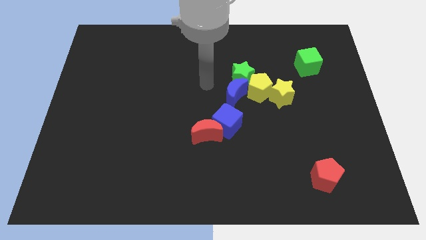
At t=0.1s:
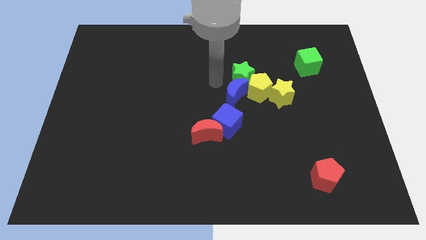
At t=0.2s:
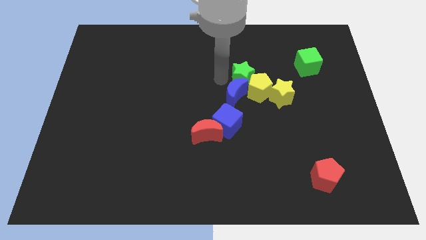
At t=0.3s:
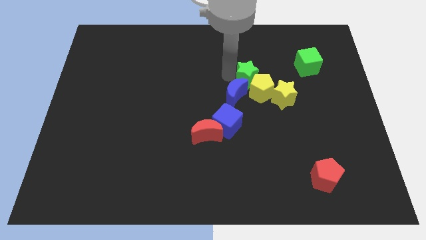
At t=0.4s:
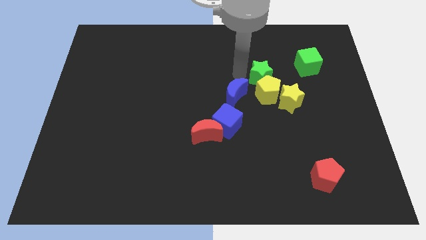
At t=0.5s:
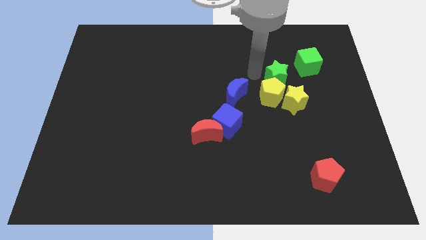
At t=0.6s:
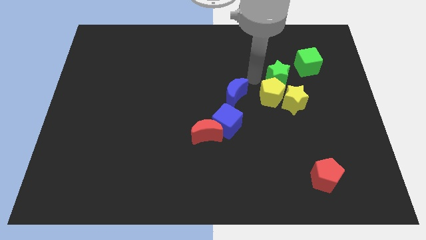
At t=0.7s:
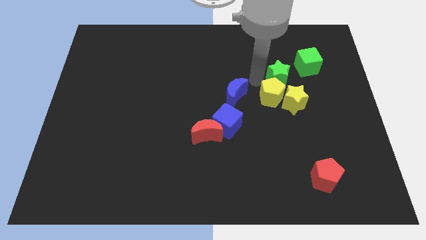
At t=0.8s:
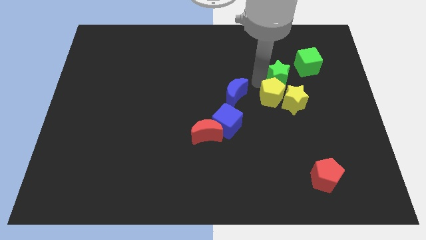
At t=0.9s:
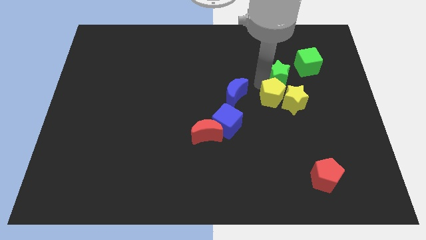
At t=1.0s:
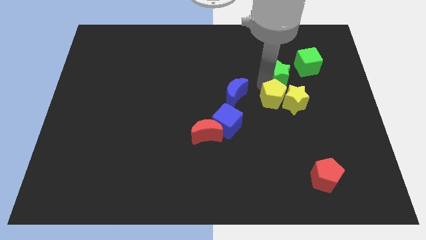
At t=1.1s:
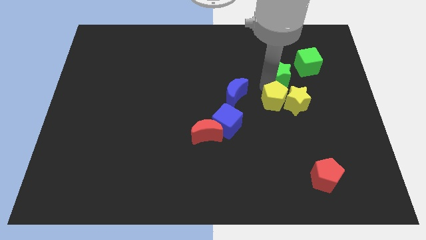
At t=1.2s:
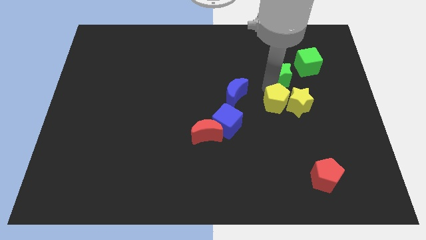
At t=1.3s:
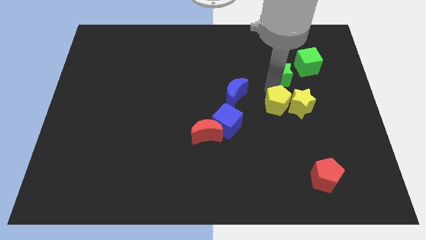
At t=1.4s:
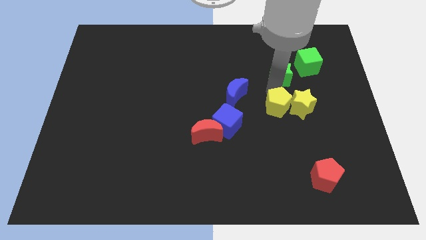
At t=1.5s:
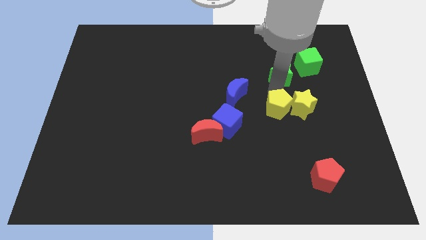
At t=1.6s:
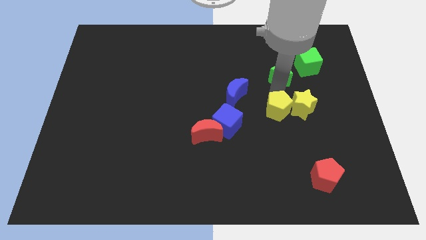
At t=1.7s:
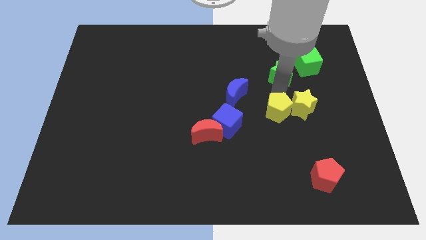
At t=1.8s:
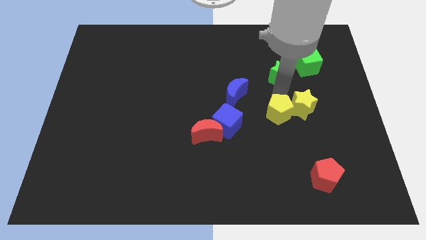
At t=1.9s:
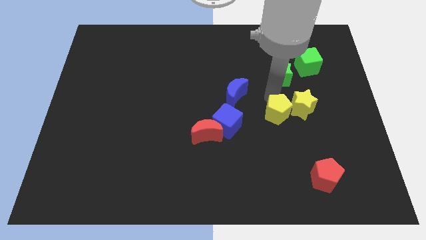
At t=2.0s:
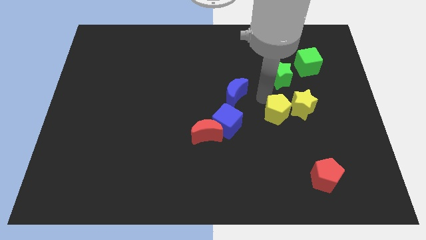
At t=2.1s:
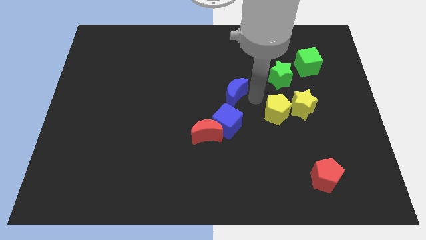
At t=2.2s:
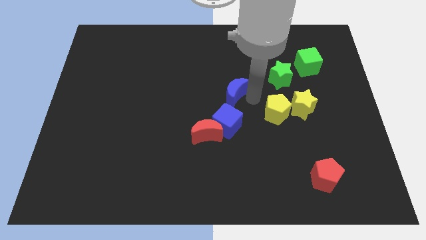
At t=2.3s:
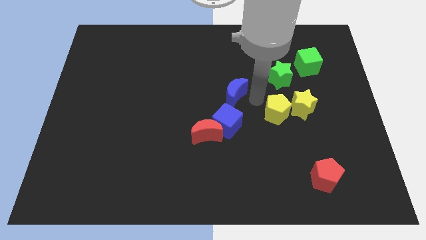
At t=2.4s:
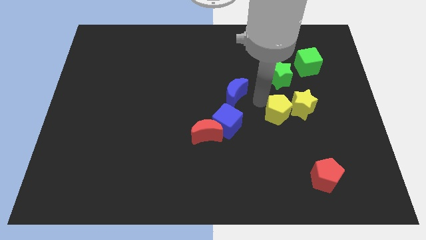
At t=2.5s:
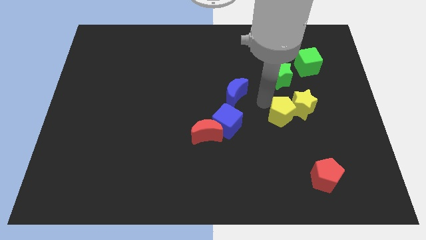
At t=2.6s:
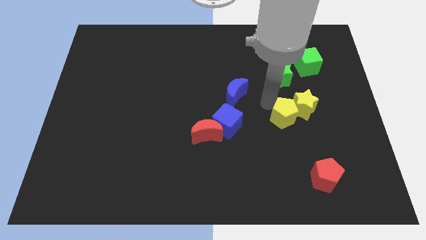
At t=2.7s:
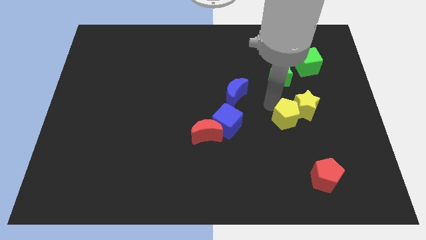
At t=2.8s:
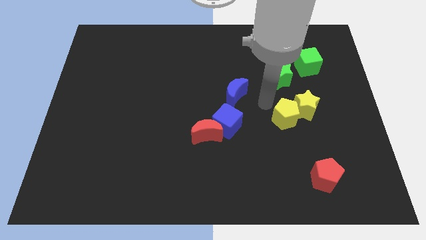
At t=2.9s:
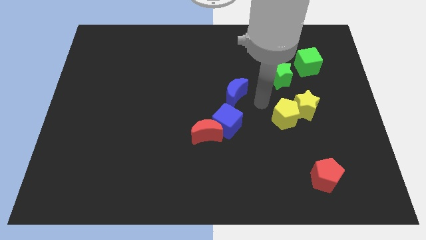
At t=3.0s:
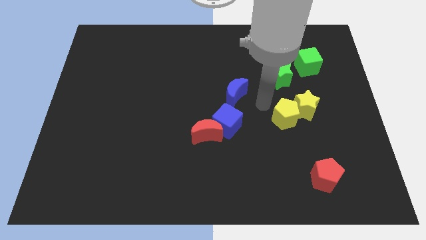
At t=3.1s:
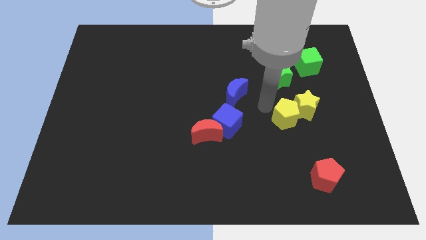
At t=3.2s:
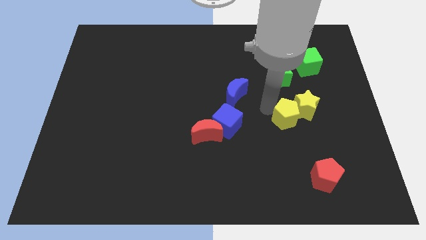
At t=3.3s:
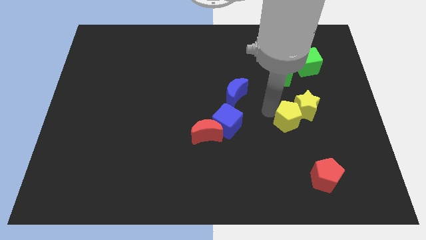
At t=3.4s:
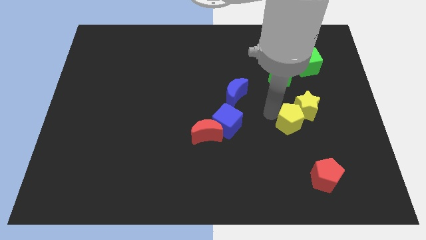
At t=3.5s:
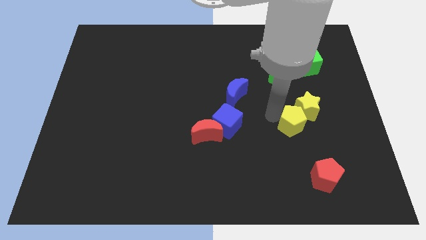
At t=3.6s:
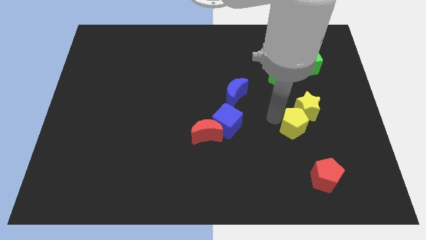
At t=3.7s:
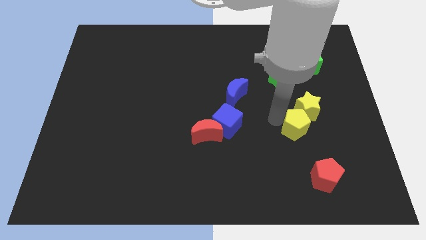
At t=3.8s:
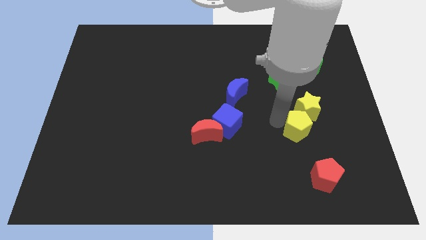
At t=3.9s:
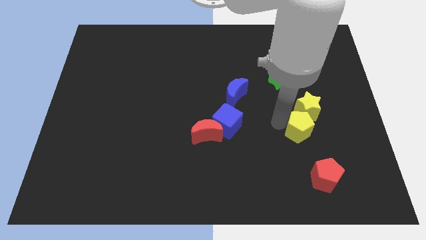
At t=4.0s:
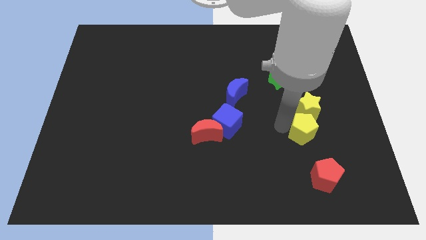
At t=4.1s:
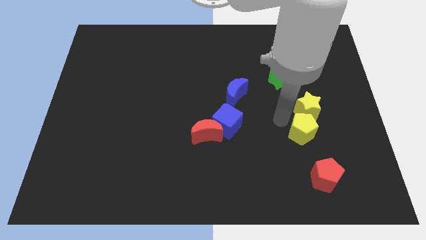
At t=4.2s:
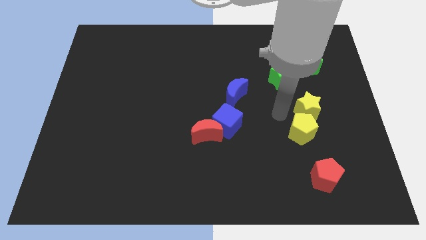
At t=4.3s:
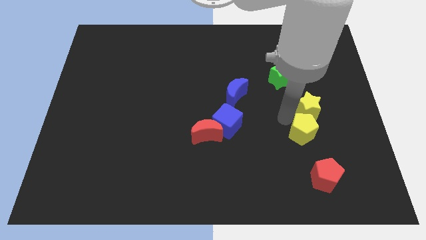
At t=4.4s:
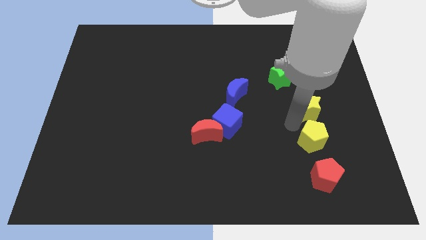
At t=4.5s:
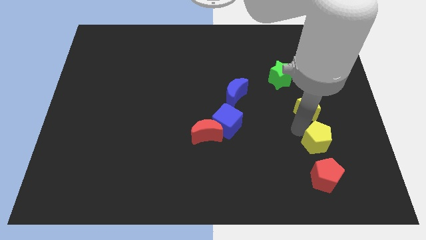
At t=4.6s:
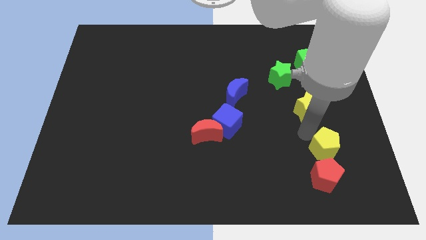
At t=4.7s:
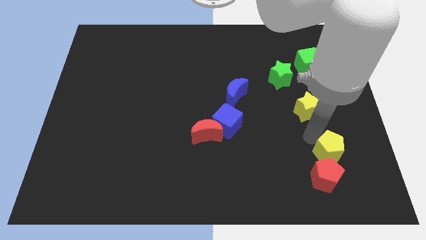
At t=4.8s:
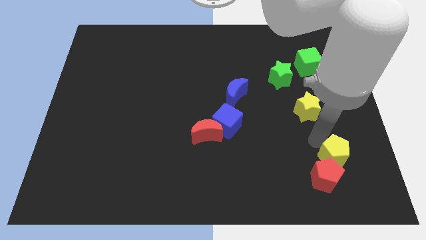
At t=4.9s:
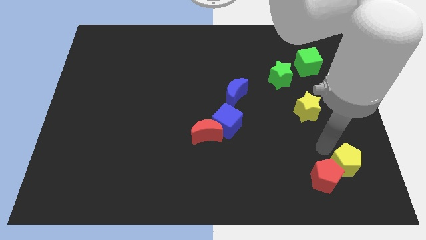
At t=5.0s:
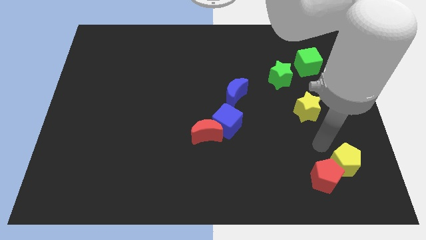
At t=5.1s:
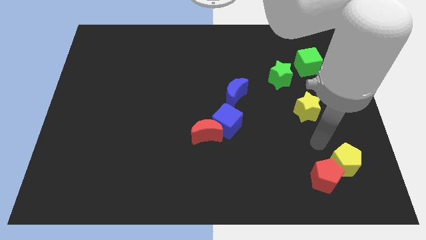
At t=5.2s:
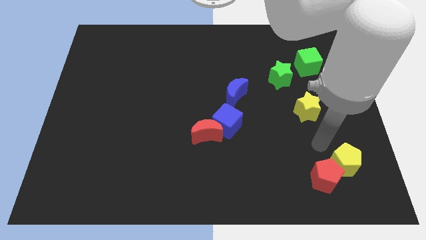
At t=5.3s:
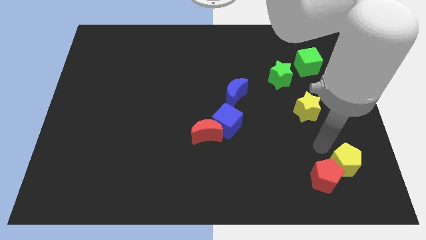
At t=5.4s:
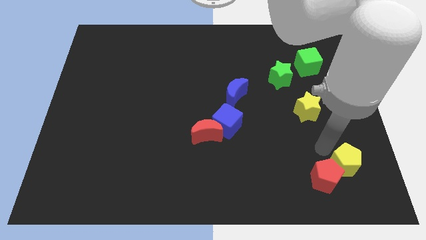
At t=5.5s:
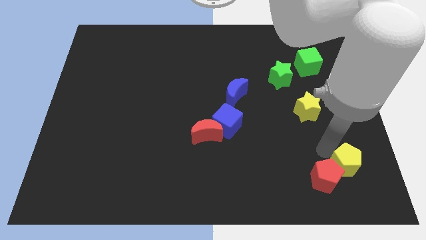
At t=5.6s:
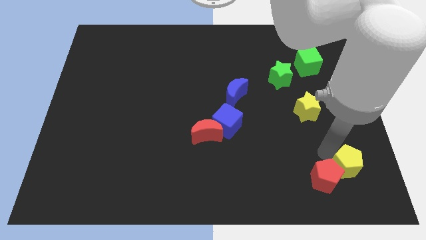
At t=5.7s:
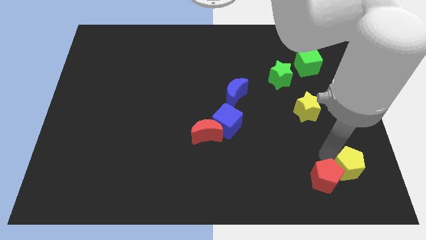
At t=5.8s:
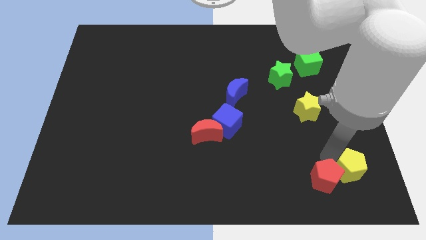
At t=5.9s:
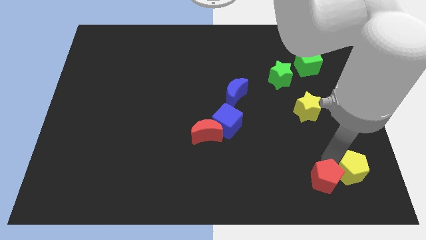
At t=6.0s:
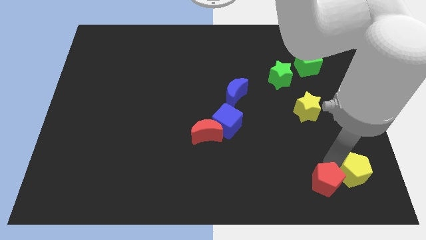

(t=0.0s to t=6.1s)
move the yellow pentagon to the bottom right corner

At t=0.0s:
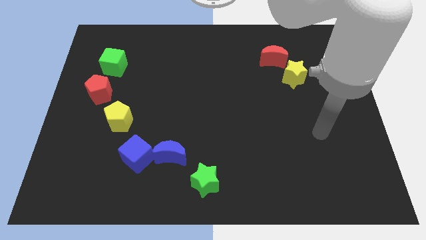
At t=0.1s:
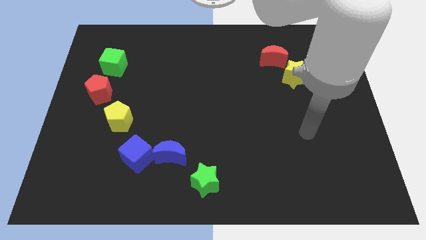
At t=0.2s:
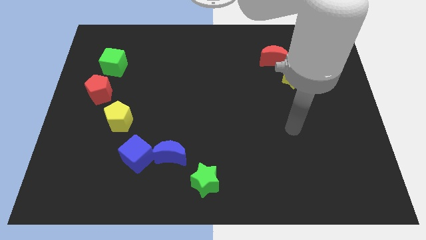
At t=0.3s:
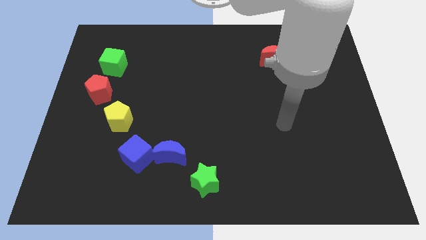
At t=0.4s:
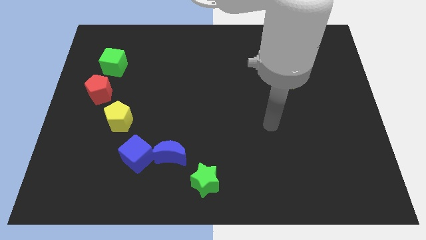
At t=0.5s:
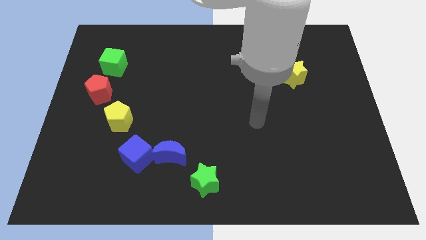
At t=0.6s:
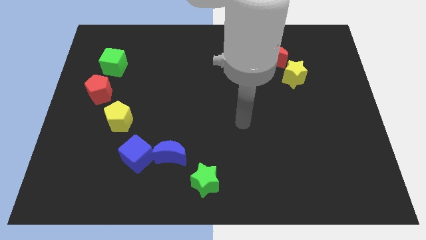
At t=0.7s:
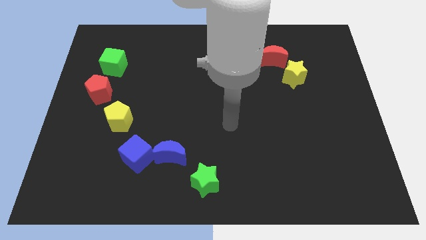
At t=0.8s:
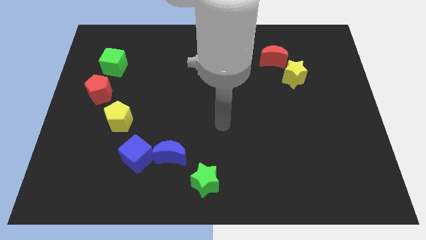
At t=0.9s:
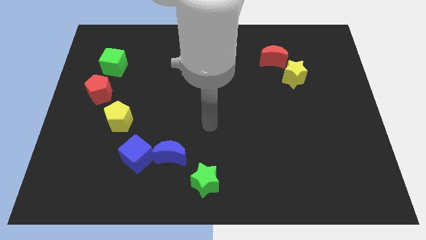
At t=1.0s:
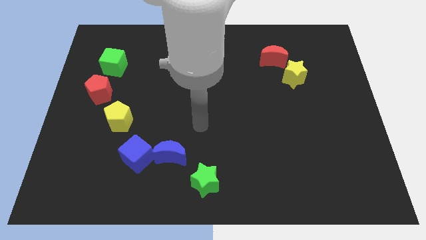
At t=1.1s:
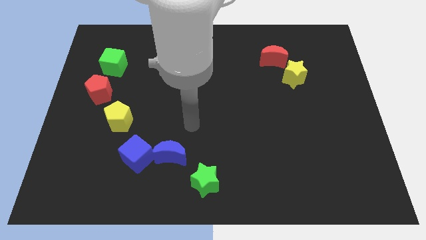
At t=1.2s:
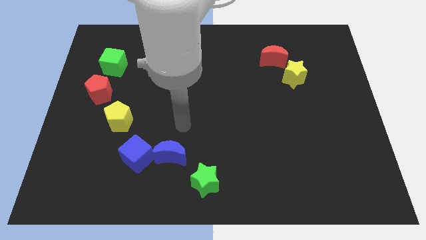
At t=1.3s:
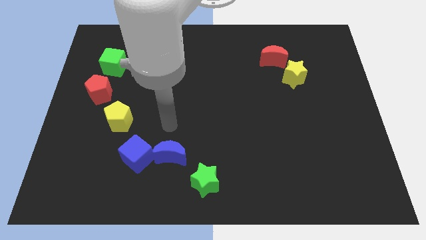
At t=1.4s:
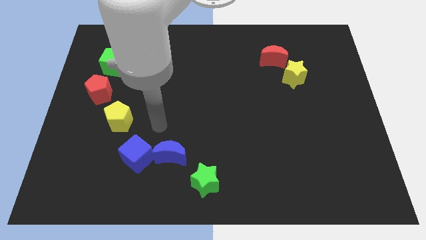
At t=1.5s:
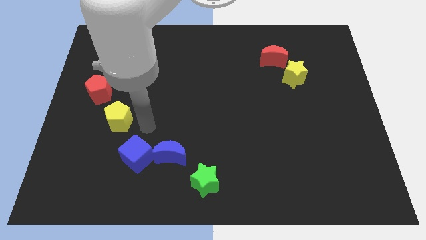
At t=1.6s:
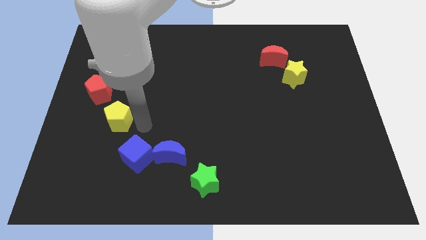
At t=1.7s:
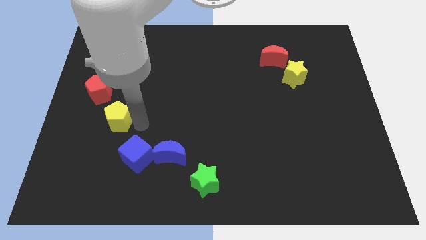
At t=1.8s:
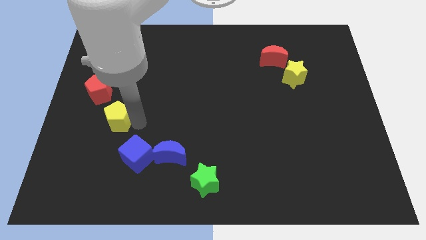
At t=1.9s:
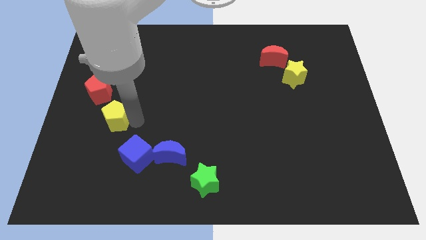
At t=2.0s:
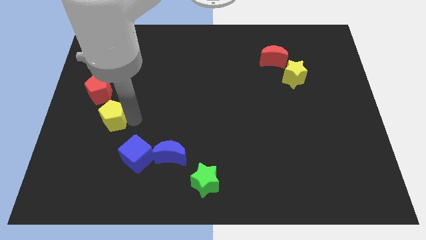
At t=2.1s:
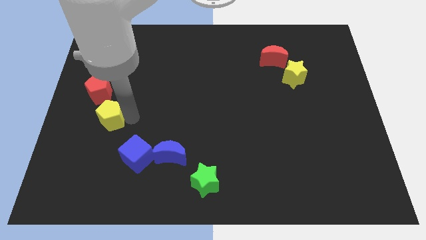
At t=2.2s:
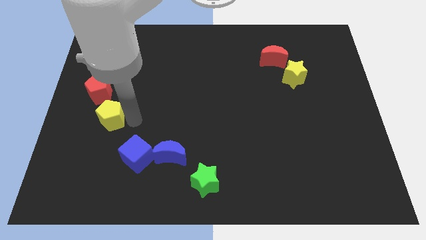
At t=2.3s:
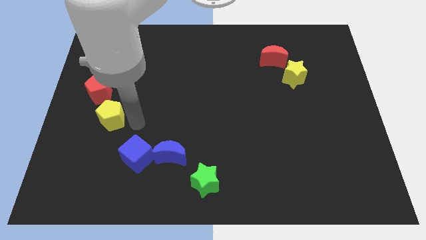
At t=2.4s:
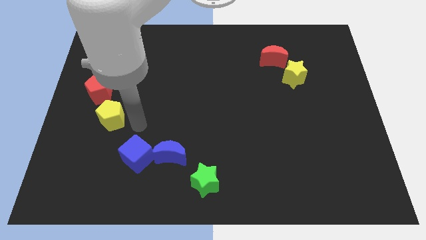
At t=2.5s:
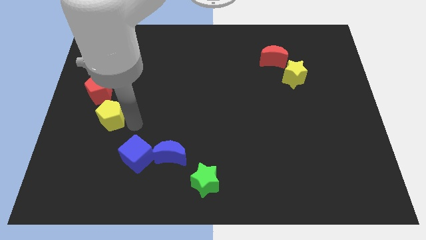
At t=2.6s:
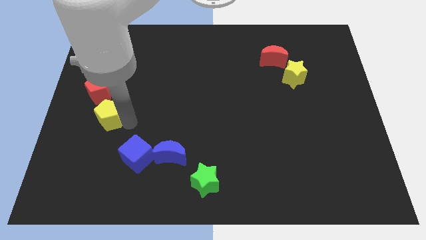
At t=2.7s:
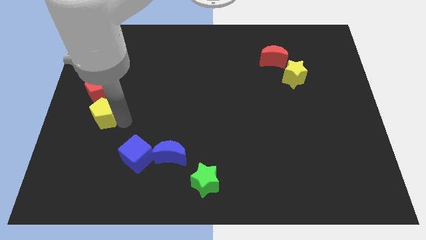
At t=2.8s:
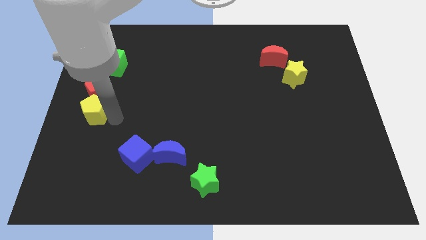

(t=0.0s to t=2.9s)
put the yellow pentagon to the center left
